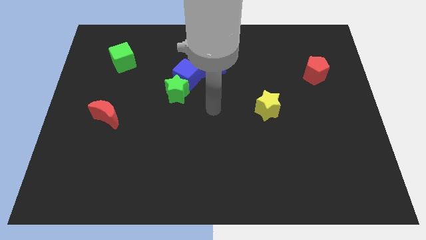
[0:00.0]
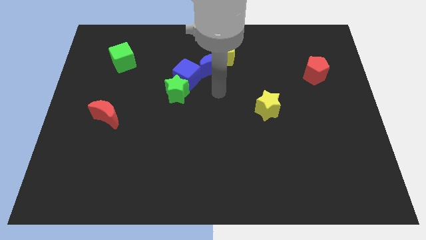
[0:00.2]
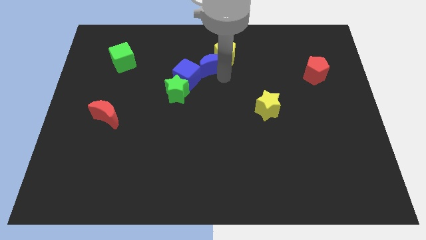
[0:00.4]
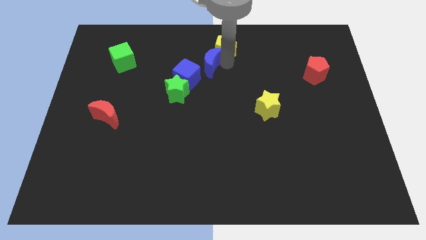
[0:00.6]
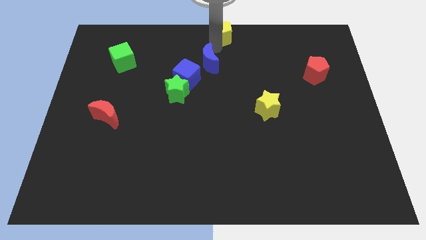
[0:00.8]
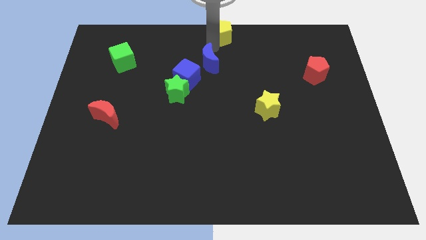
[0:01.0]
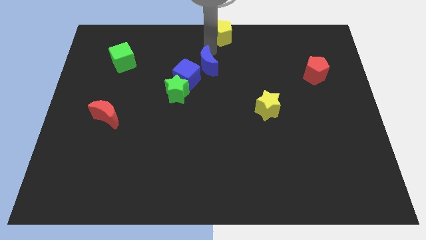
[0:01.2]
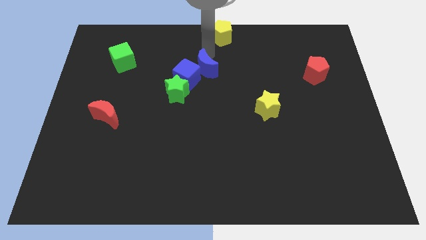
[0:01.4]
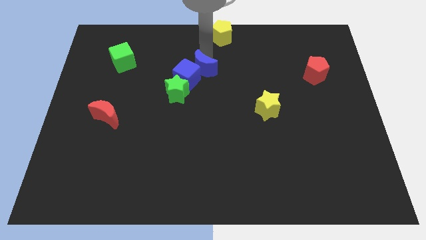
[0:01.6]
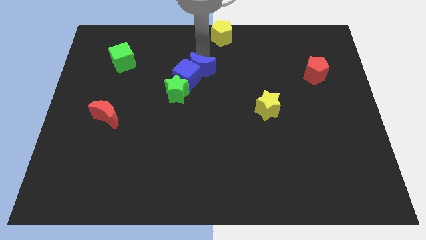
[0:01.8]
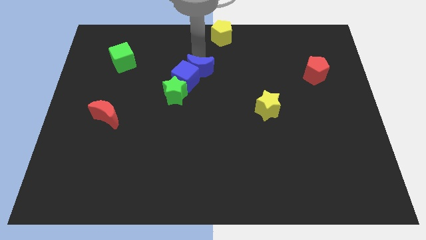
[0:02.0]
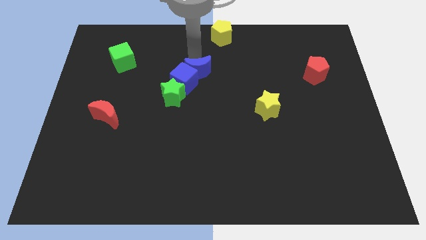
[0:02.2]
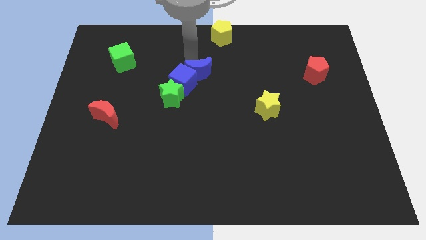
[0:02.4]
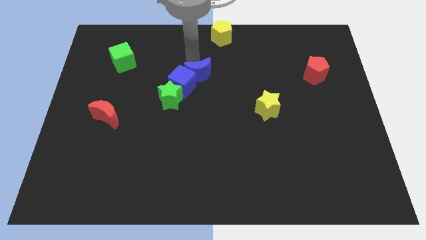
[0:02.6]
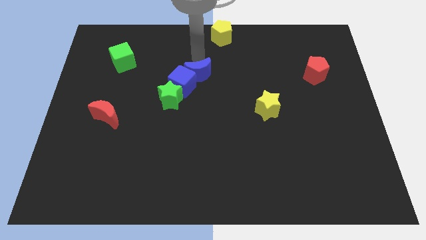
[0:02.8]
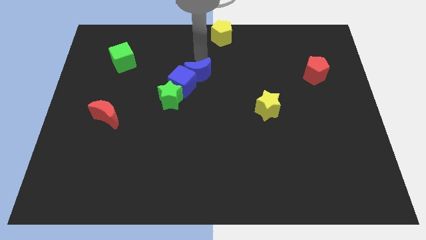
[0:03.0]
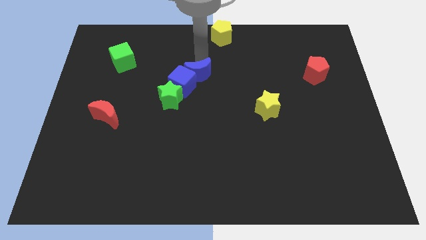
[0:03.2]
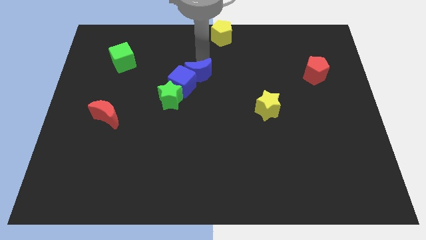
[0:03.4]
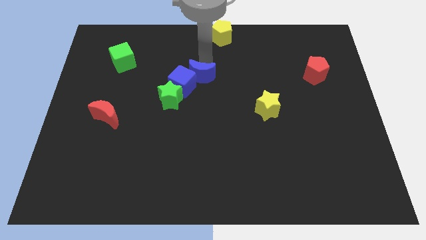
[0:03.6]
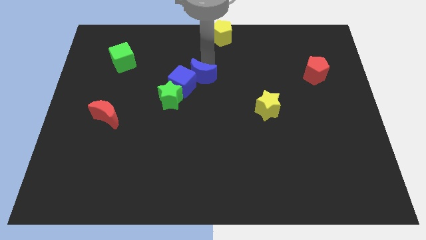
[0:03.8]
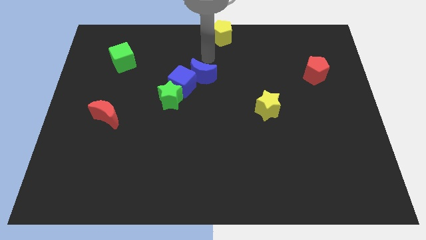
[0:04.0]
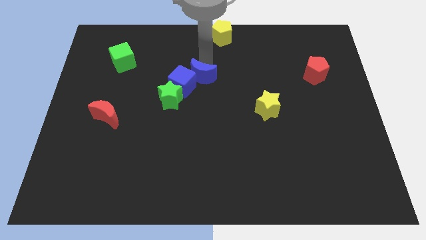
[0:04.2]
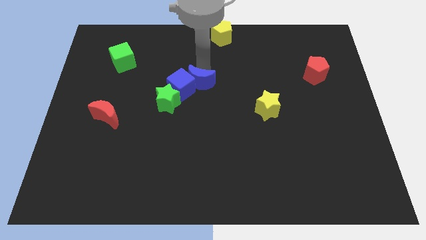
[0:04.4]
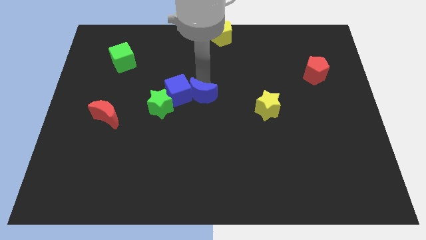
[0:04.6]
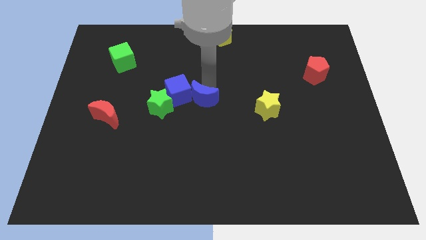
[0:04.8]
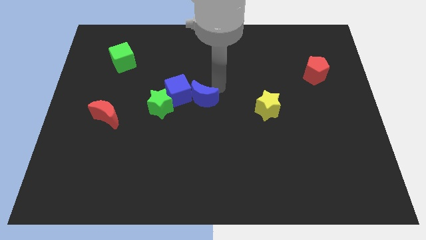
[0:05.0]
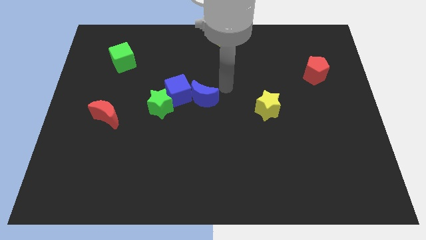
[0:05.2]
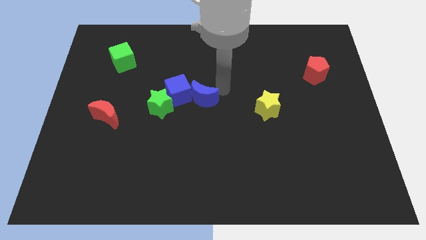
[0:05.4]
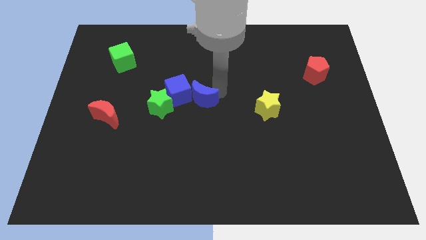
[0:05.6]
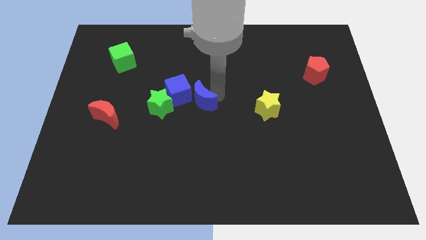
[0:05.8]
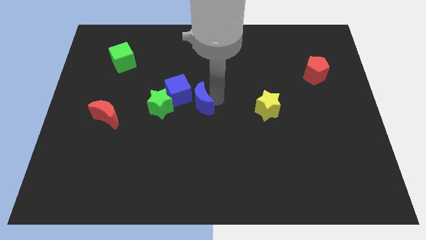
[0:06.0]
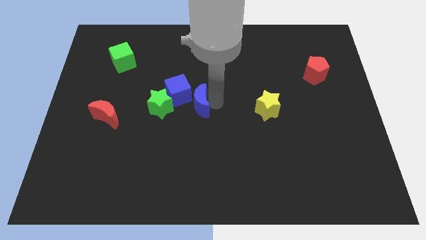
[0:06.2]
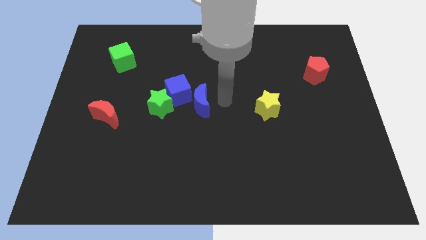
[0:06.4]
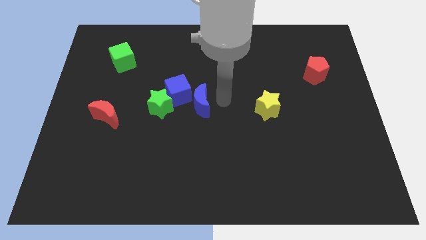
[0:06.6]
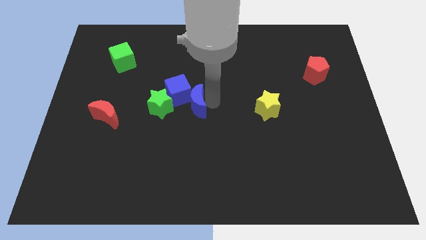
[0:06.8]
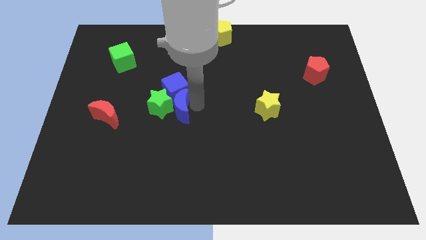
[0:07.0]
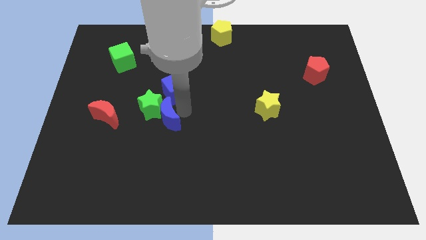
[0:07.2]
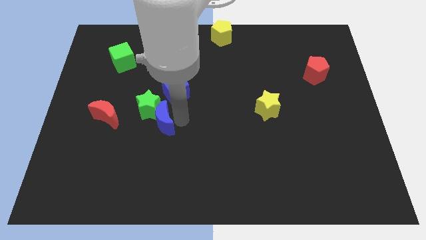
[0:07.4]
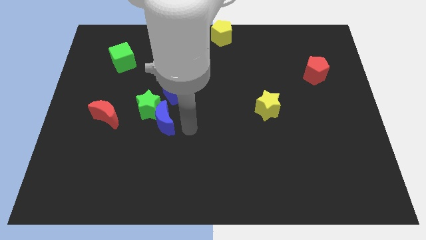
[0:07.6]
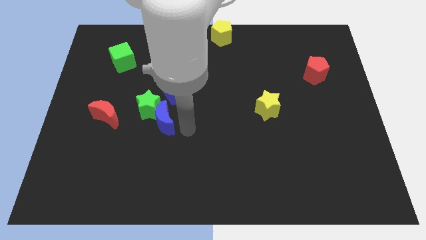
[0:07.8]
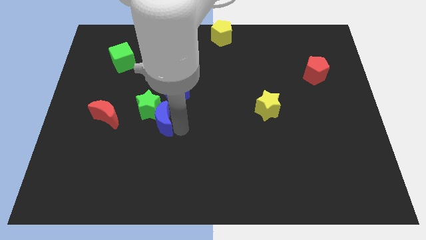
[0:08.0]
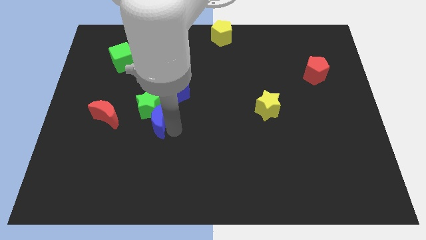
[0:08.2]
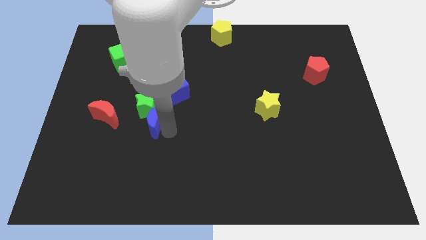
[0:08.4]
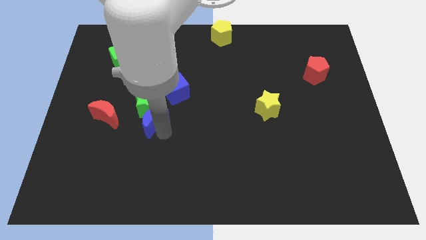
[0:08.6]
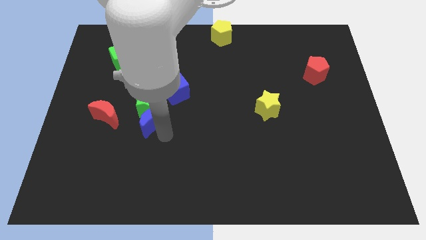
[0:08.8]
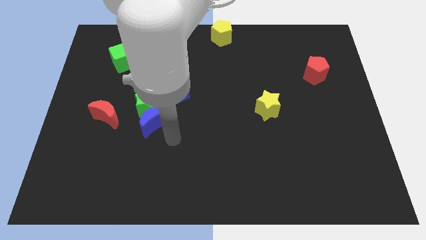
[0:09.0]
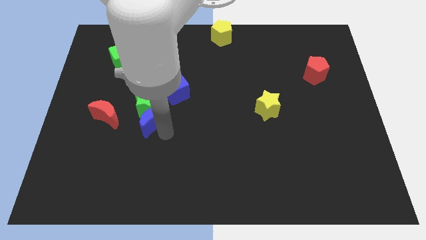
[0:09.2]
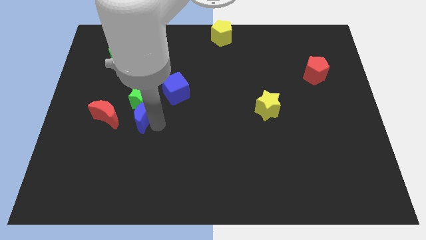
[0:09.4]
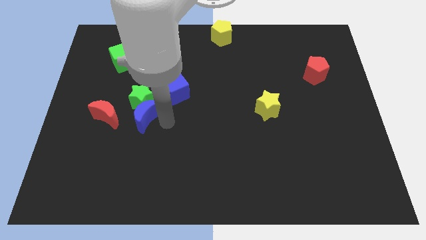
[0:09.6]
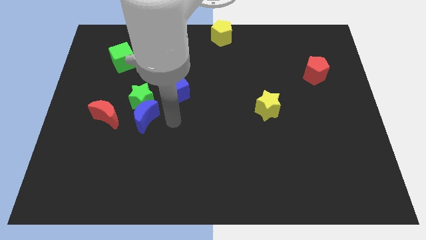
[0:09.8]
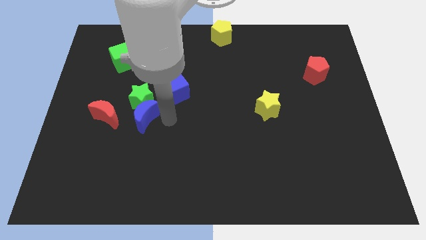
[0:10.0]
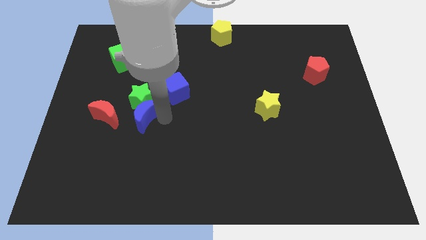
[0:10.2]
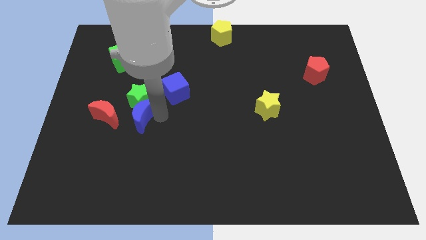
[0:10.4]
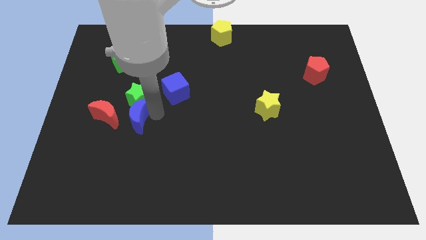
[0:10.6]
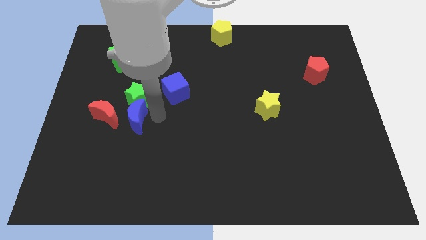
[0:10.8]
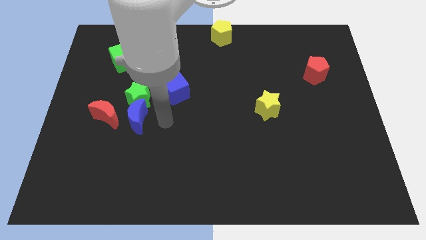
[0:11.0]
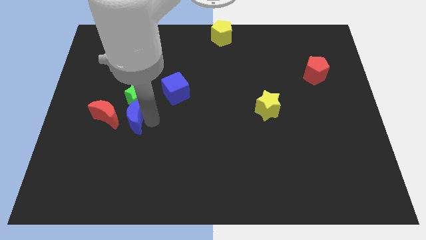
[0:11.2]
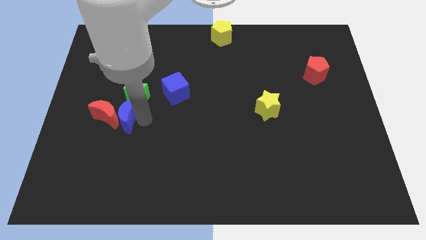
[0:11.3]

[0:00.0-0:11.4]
put the blue moon next to the red moon

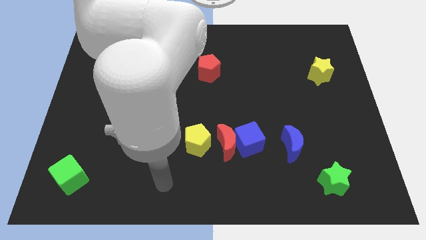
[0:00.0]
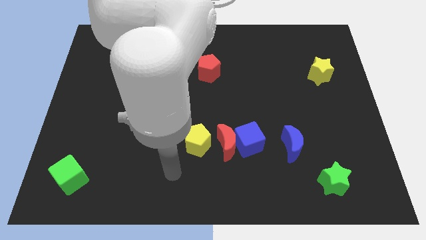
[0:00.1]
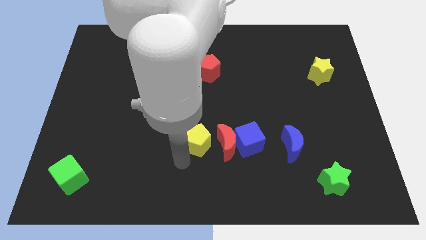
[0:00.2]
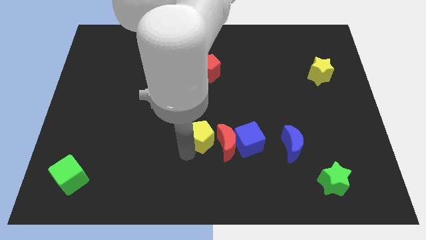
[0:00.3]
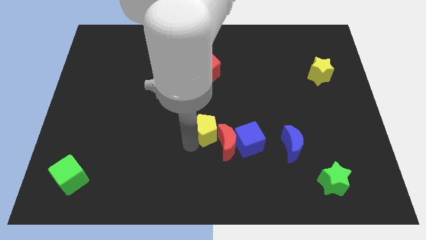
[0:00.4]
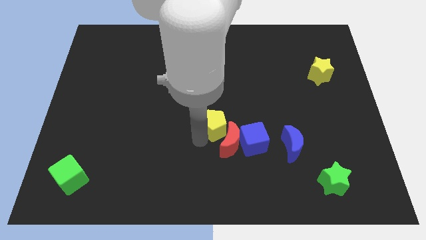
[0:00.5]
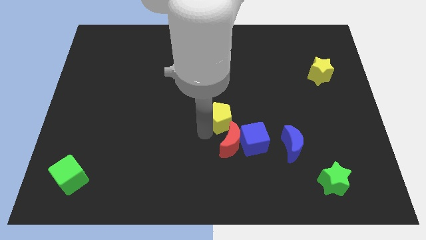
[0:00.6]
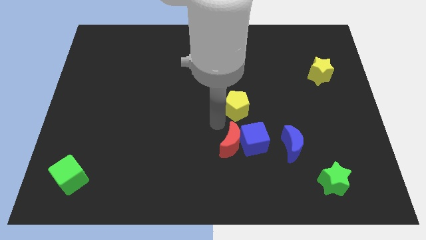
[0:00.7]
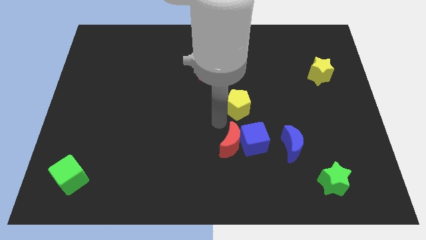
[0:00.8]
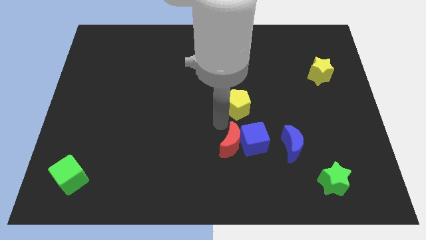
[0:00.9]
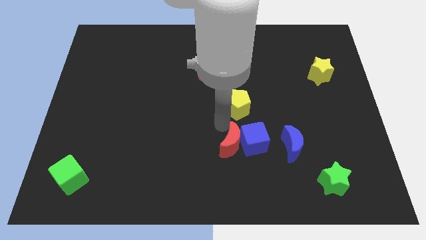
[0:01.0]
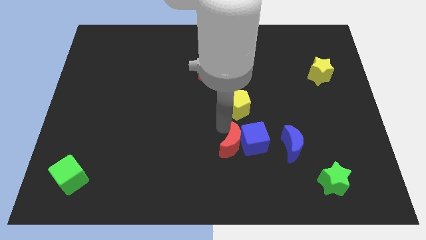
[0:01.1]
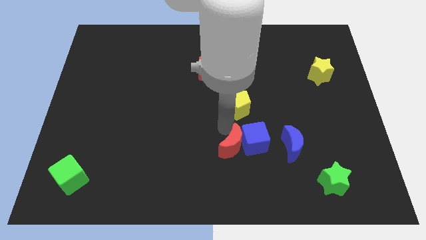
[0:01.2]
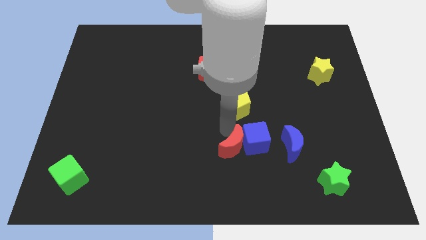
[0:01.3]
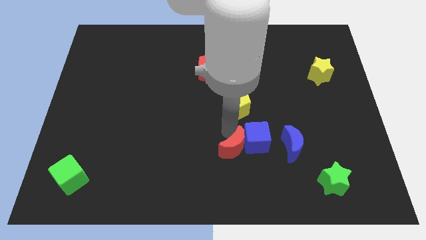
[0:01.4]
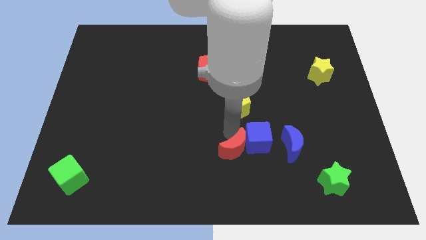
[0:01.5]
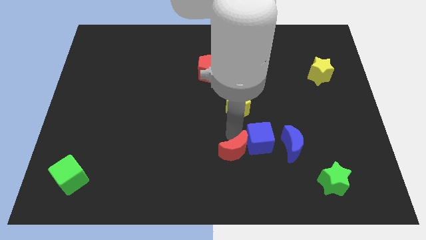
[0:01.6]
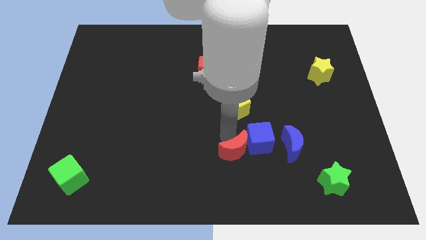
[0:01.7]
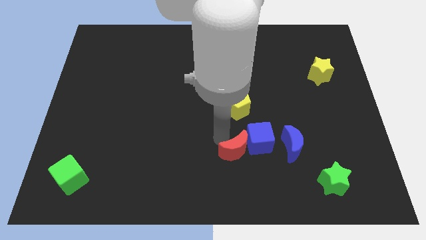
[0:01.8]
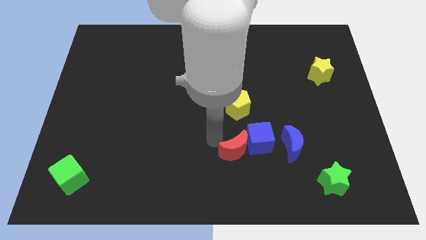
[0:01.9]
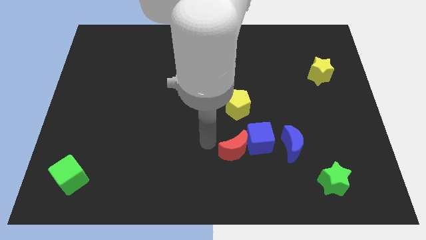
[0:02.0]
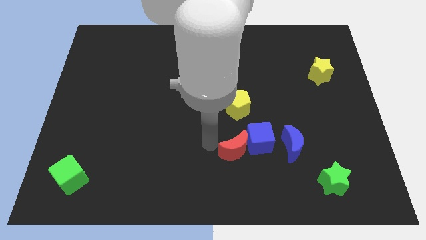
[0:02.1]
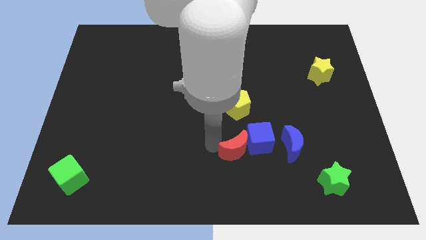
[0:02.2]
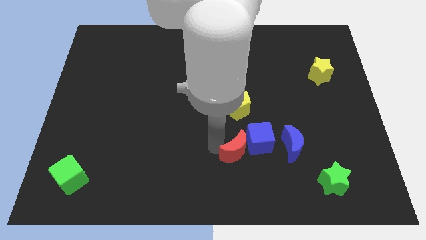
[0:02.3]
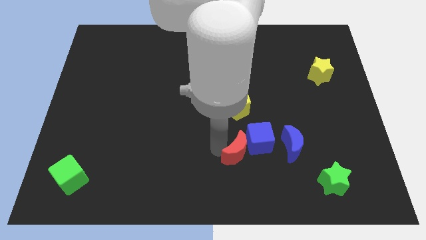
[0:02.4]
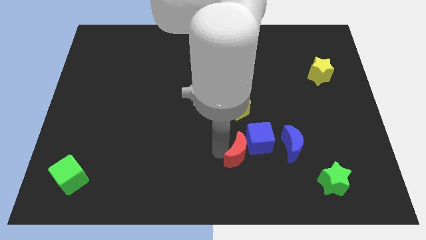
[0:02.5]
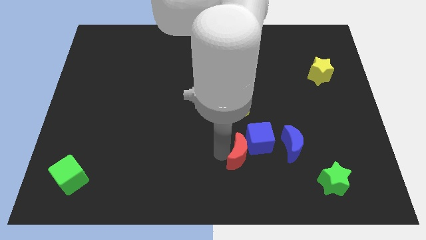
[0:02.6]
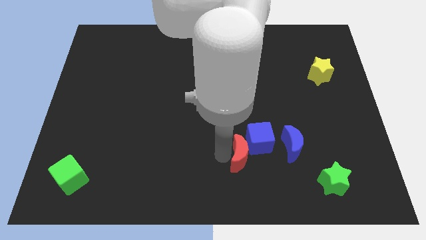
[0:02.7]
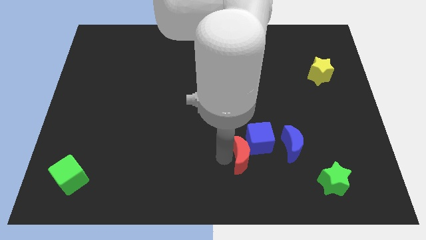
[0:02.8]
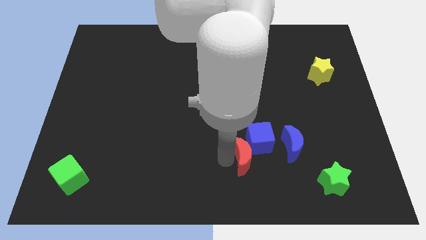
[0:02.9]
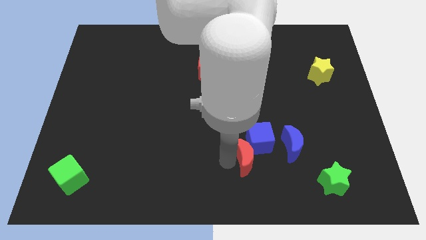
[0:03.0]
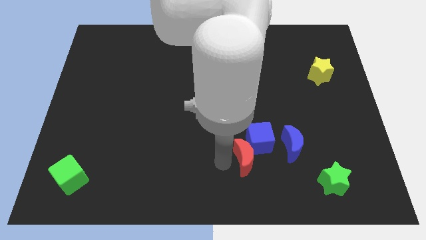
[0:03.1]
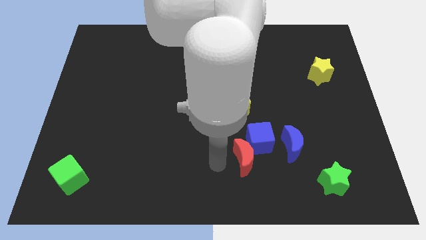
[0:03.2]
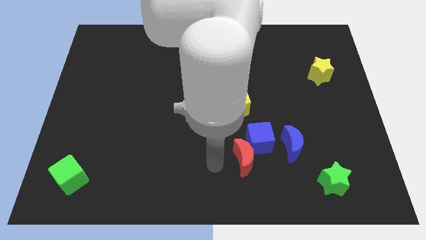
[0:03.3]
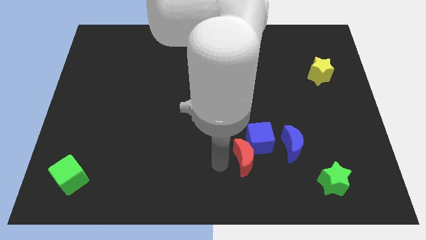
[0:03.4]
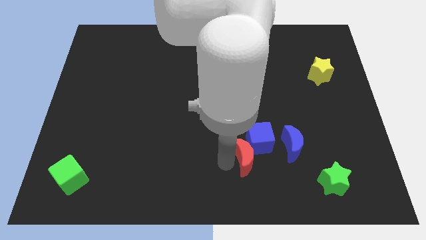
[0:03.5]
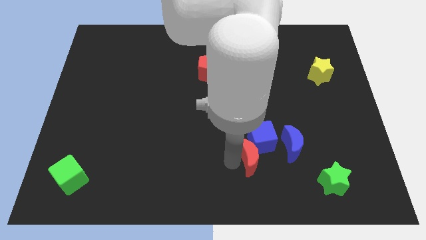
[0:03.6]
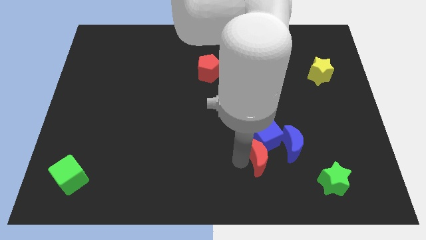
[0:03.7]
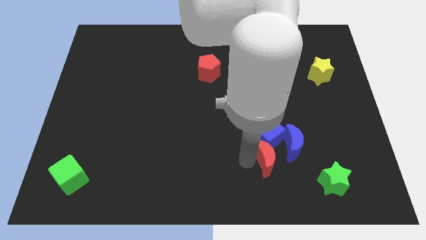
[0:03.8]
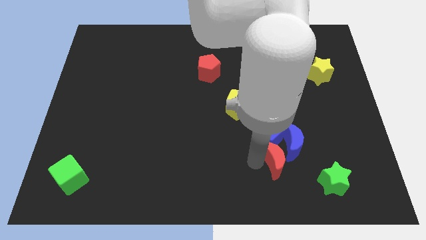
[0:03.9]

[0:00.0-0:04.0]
push the red moon to the blue moon
